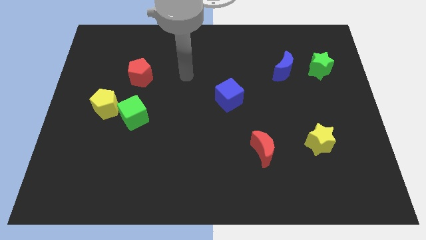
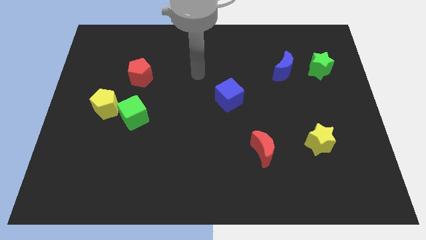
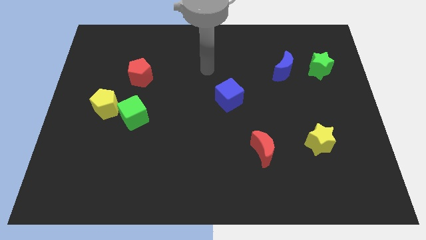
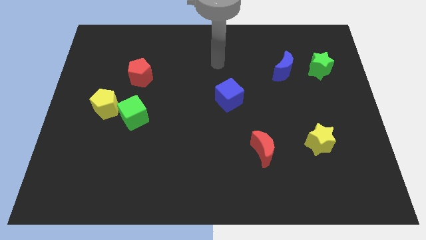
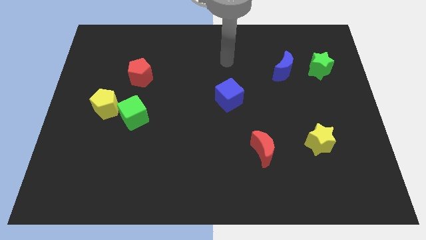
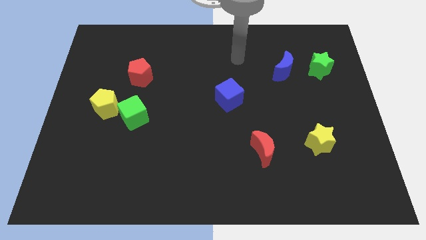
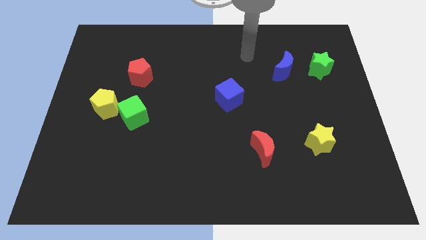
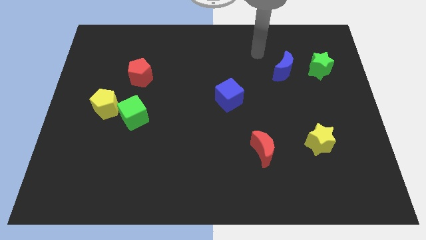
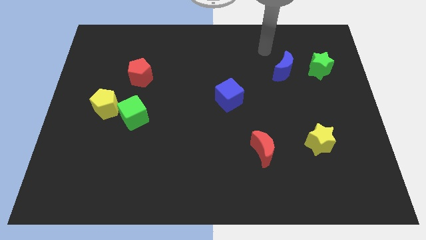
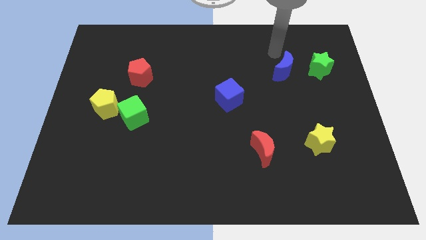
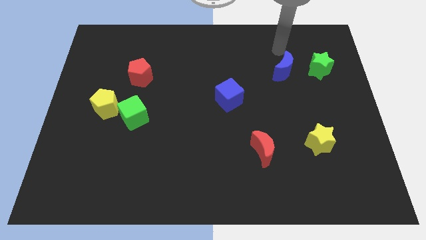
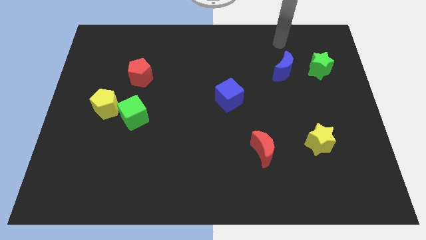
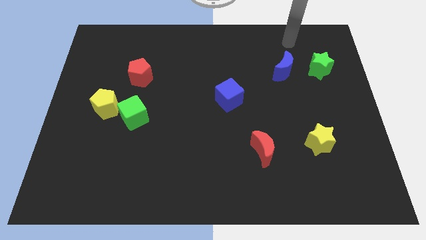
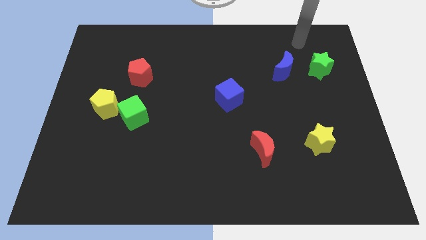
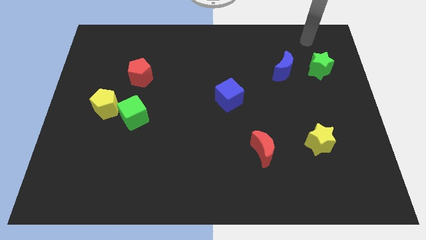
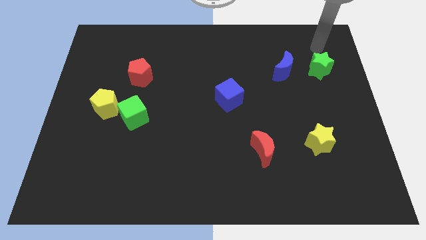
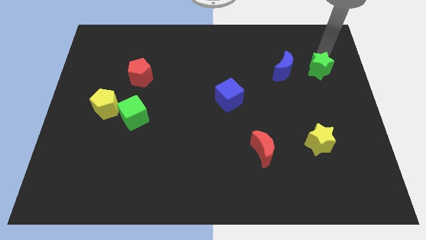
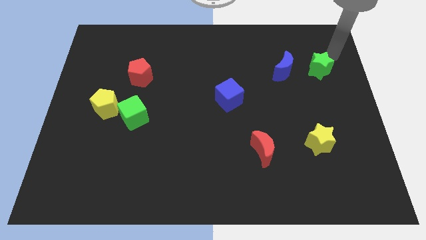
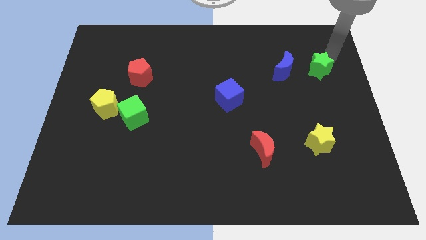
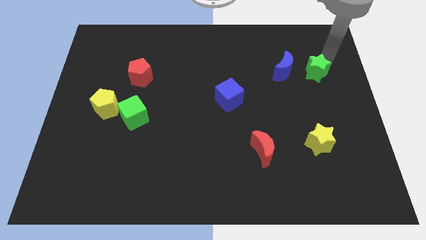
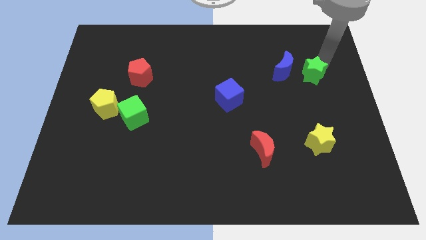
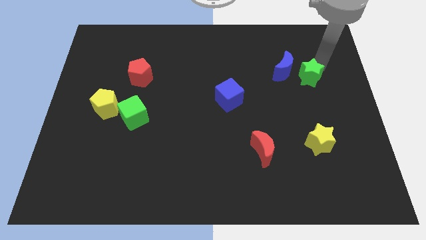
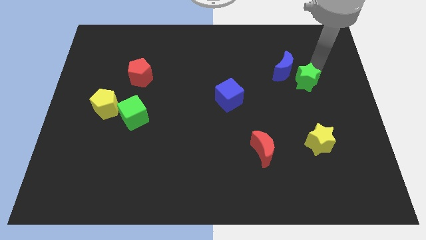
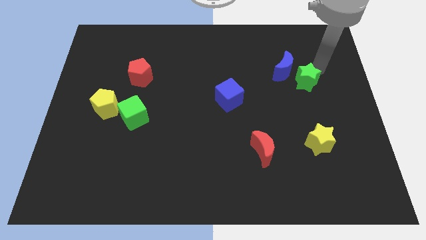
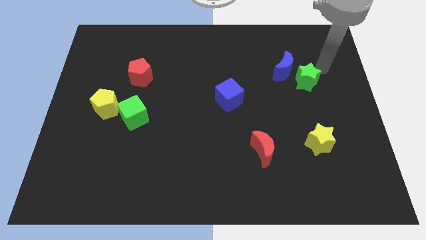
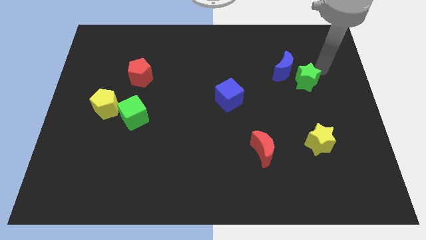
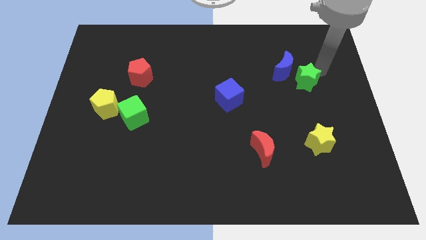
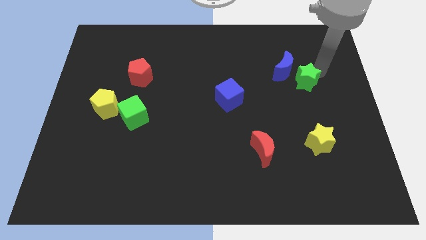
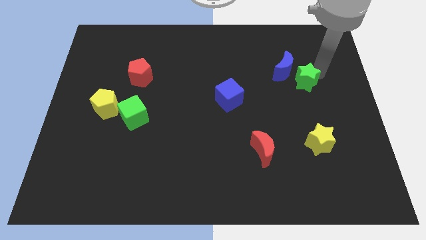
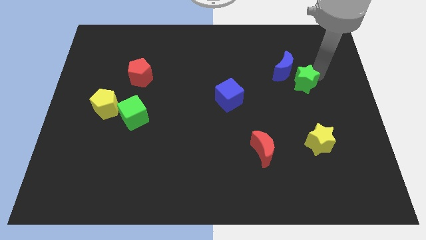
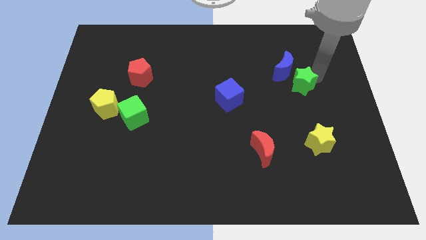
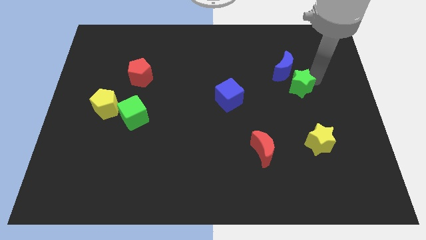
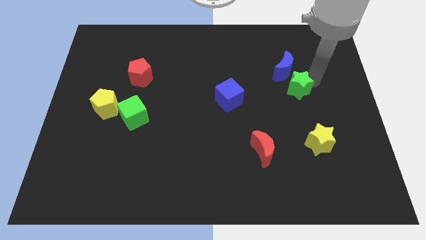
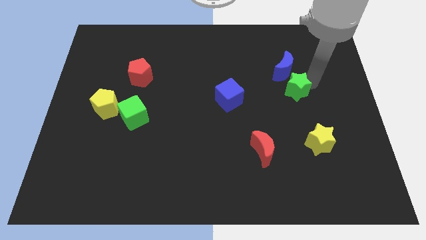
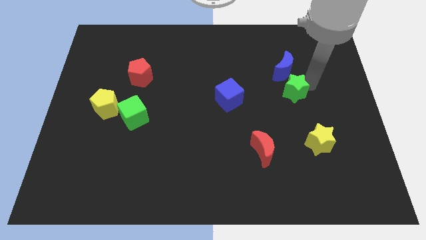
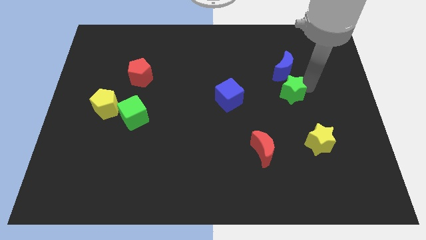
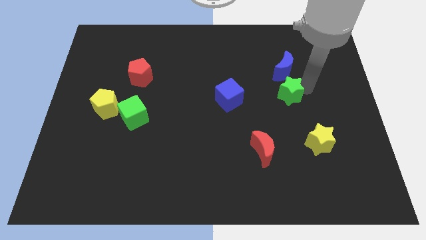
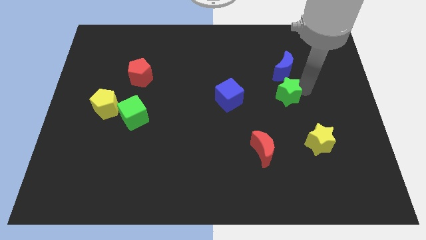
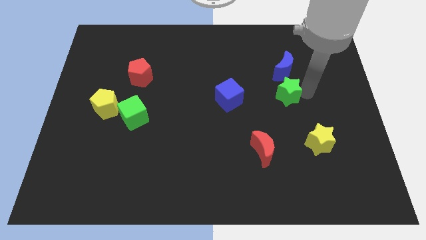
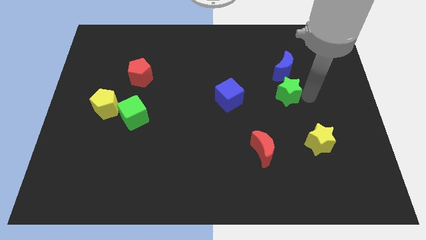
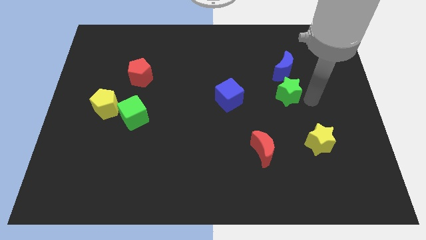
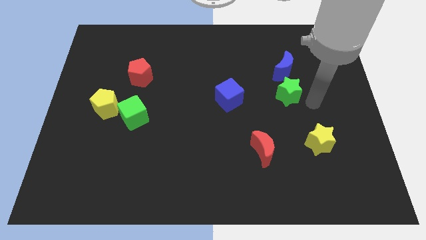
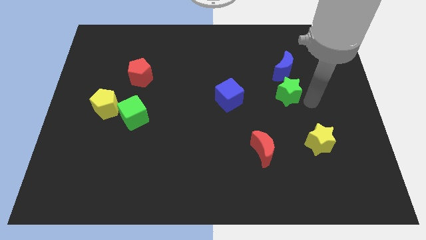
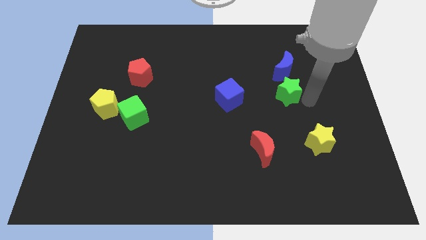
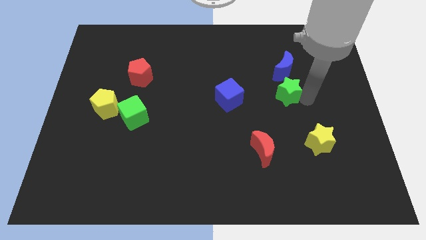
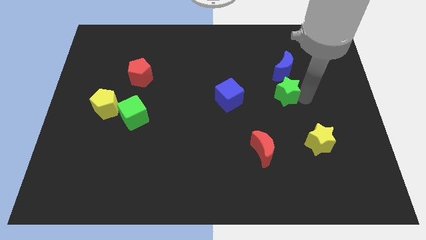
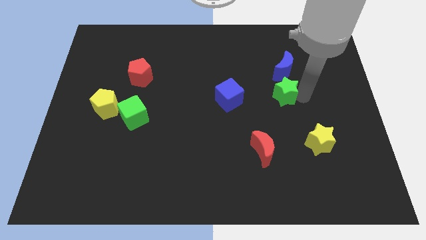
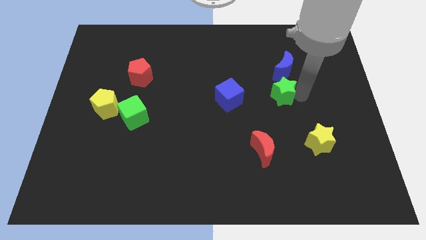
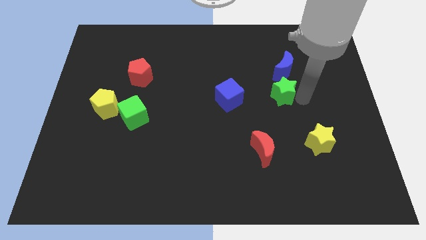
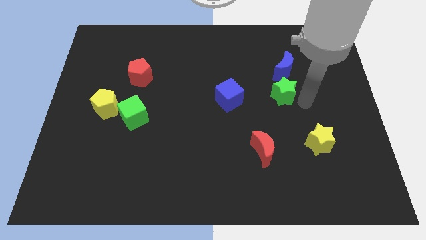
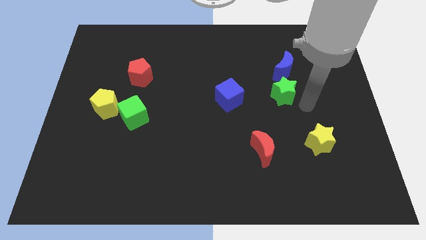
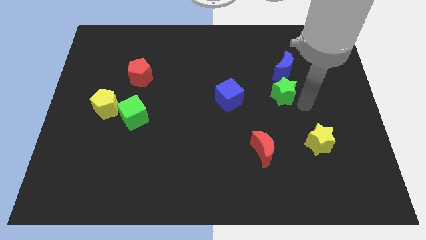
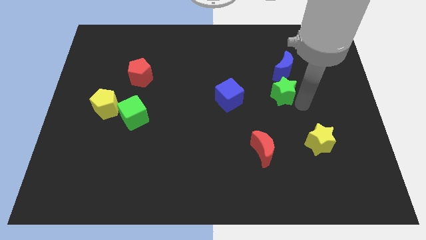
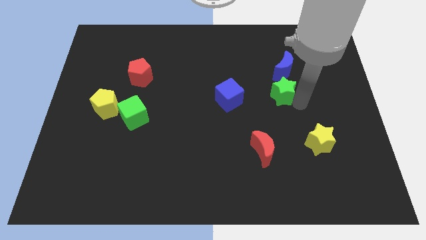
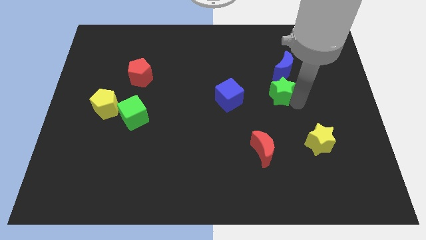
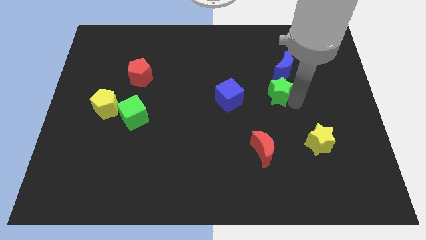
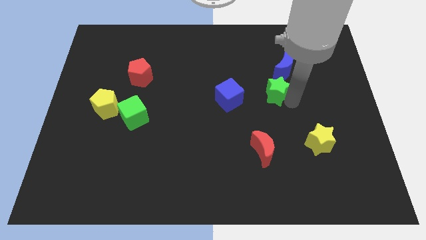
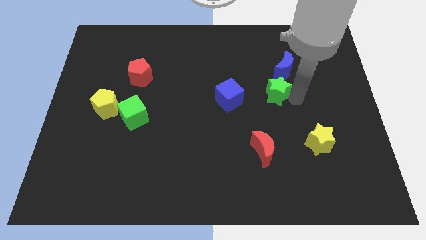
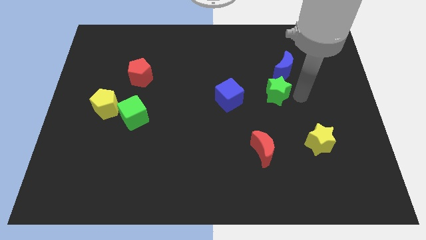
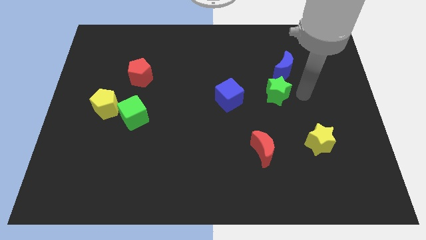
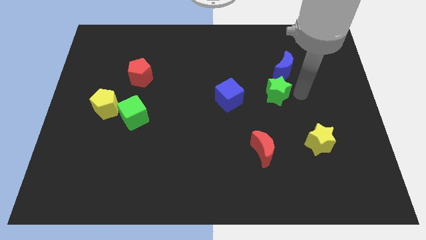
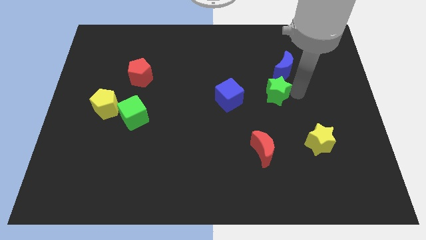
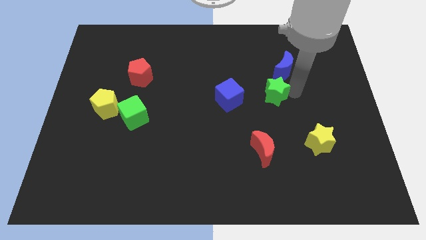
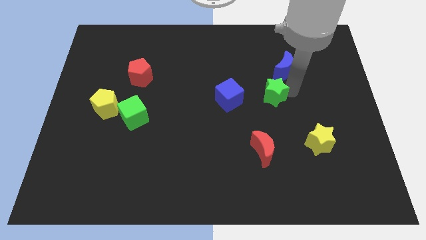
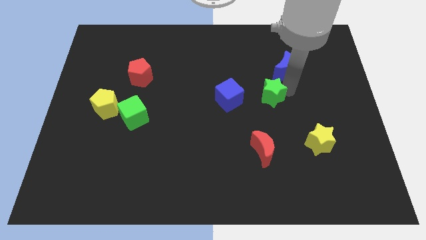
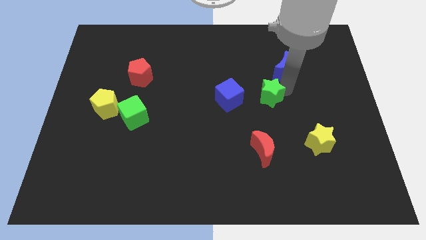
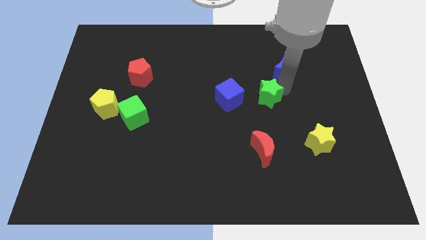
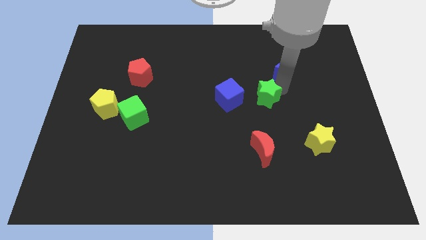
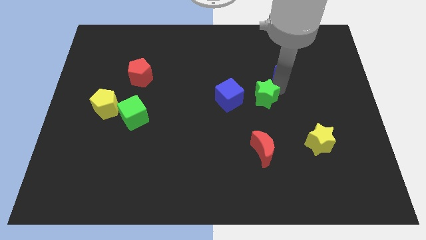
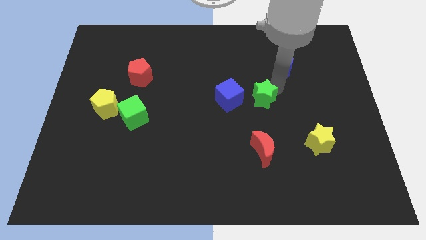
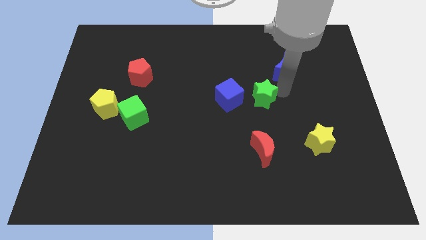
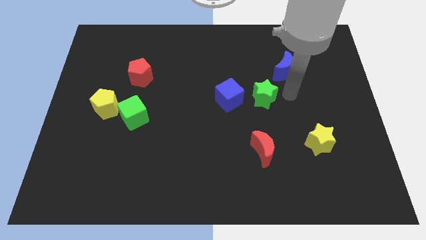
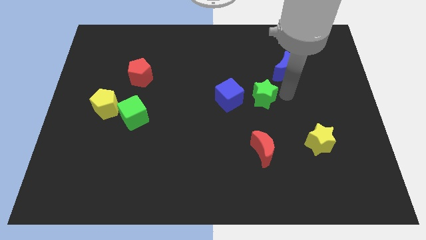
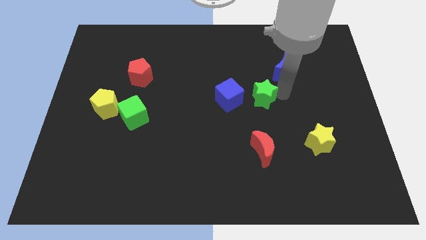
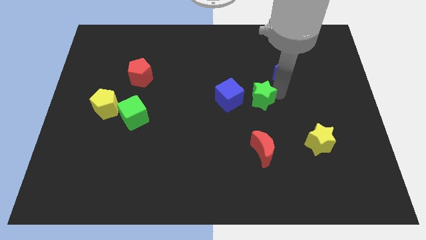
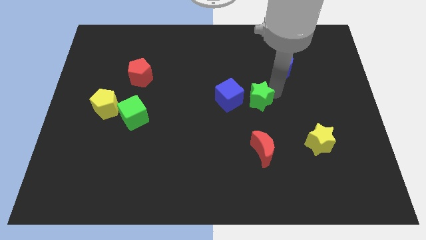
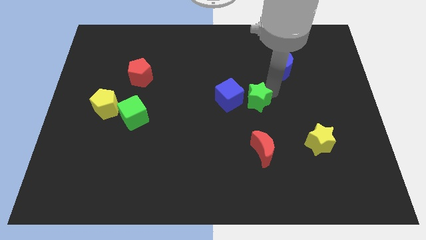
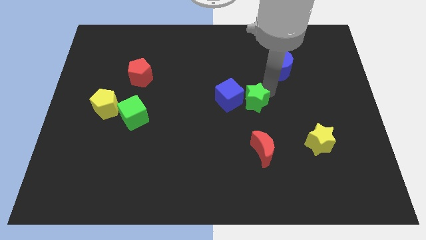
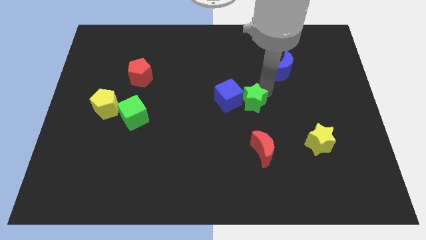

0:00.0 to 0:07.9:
push the green star next to the blue cube
